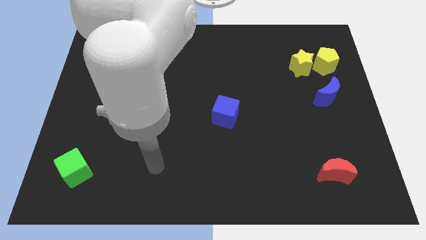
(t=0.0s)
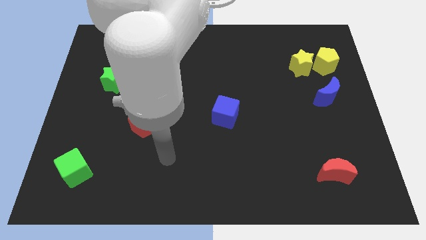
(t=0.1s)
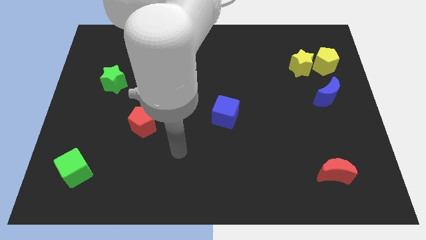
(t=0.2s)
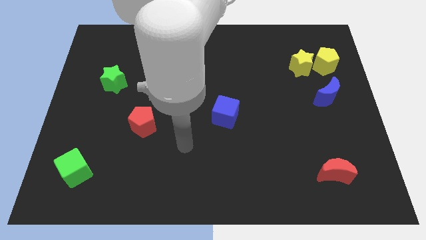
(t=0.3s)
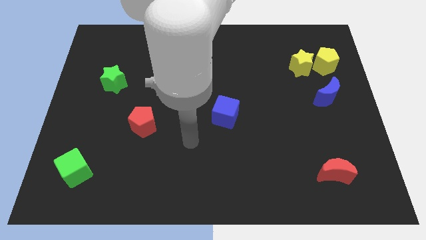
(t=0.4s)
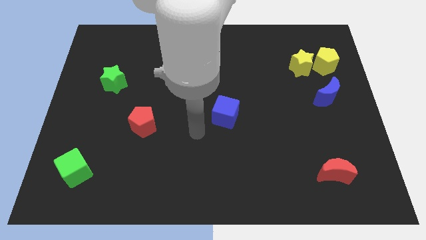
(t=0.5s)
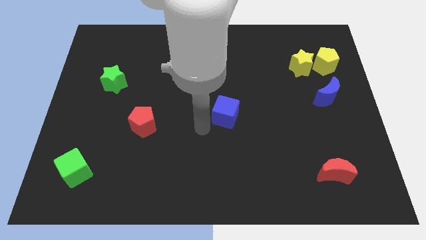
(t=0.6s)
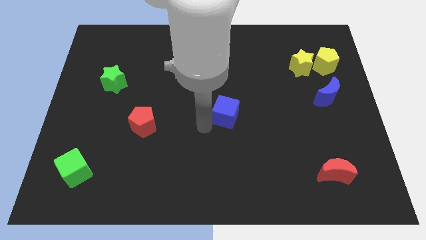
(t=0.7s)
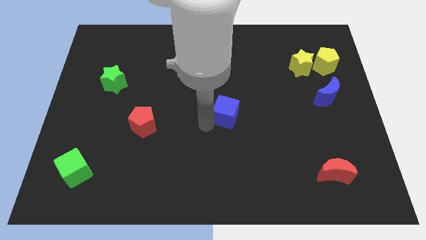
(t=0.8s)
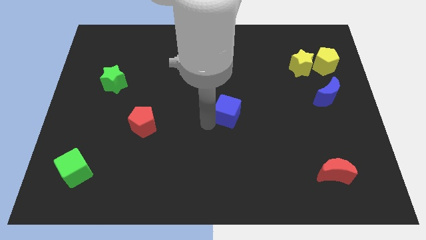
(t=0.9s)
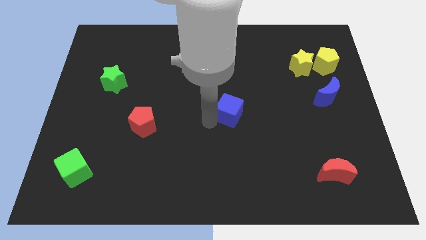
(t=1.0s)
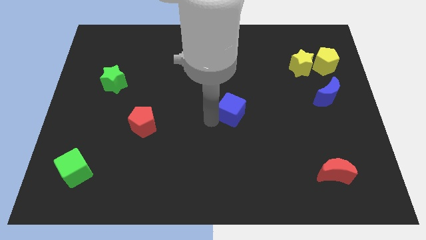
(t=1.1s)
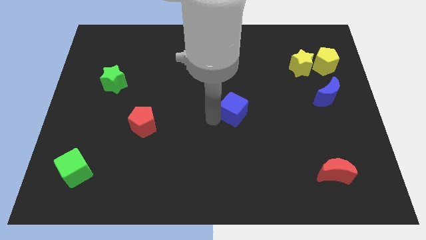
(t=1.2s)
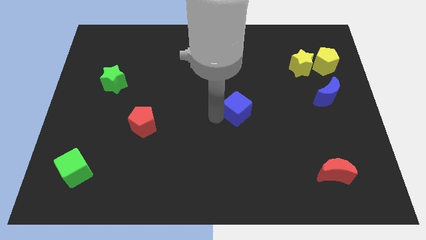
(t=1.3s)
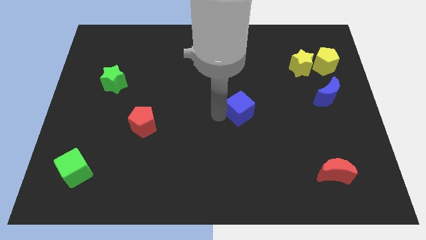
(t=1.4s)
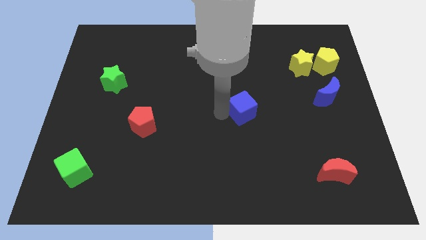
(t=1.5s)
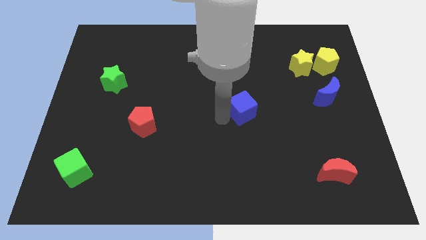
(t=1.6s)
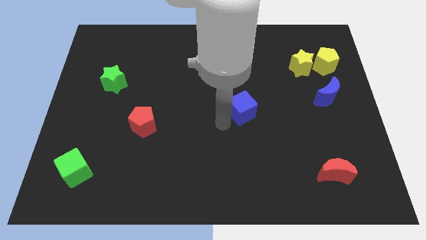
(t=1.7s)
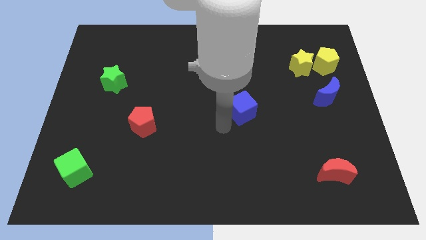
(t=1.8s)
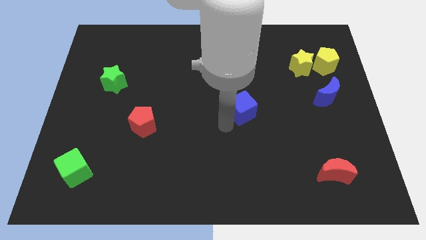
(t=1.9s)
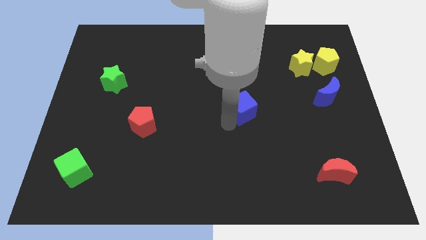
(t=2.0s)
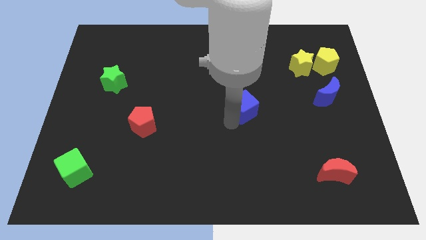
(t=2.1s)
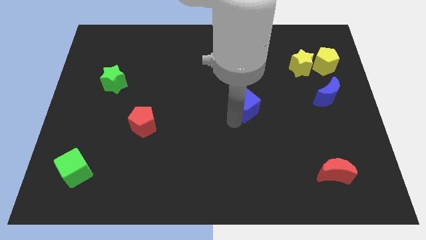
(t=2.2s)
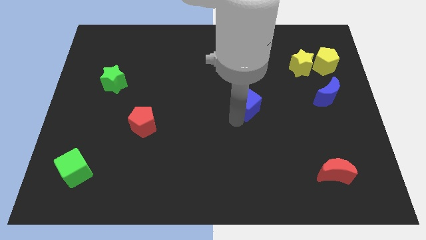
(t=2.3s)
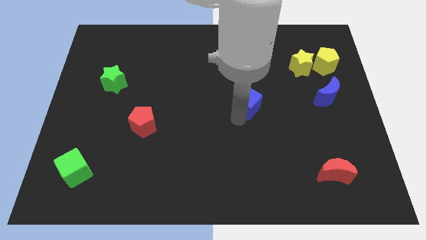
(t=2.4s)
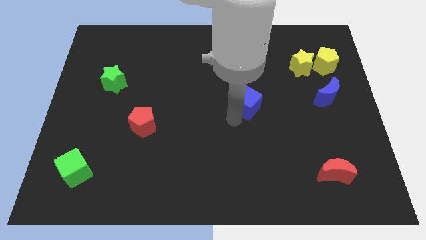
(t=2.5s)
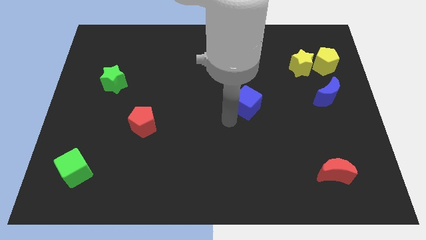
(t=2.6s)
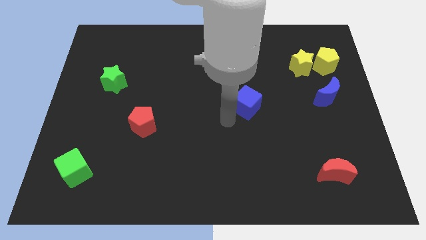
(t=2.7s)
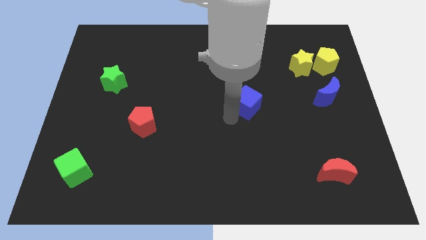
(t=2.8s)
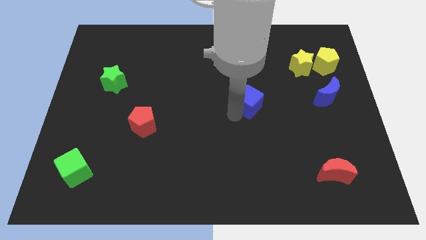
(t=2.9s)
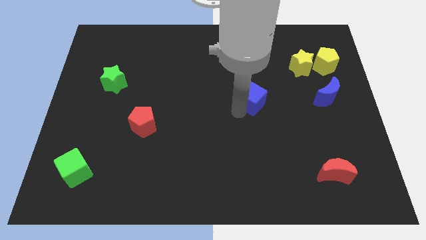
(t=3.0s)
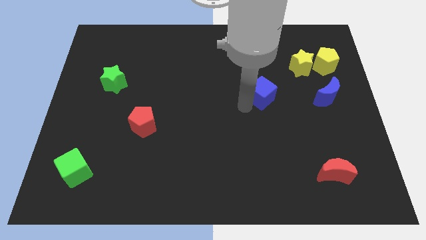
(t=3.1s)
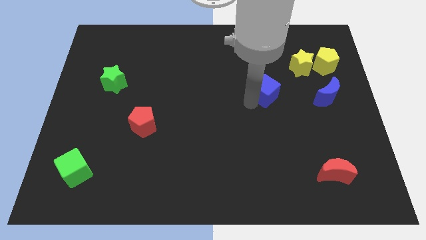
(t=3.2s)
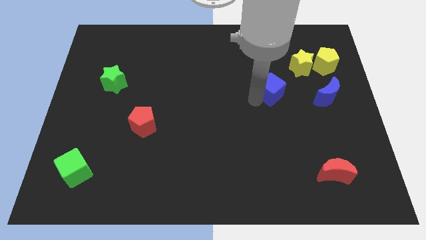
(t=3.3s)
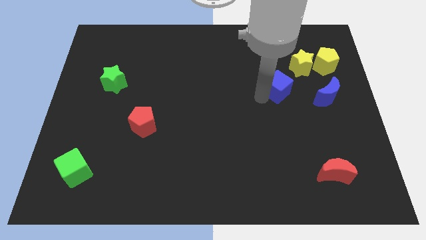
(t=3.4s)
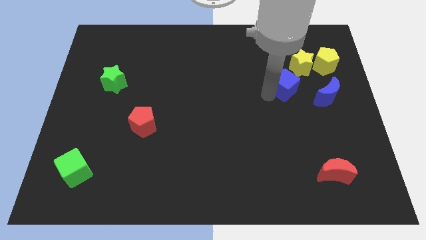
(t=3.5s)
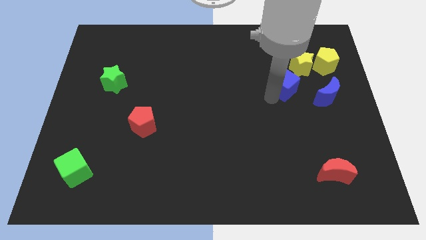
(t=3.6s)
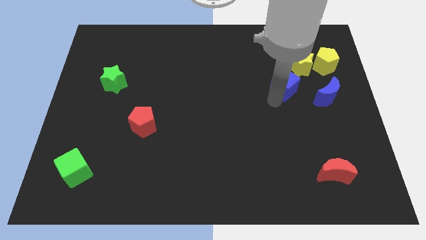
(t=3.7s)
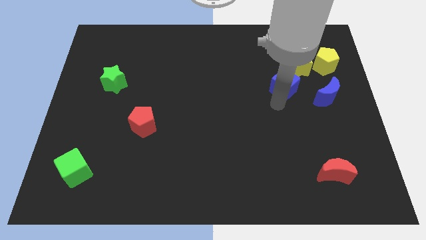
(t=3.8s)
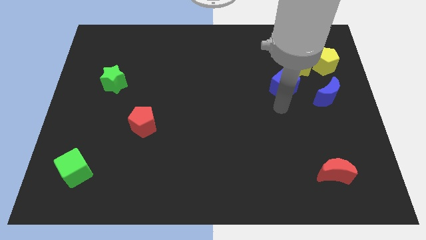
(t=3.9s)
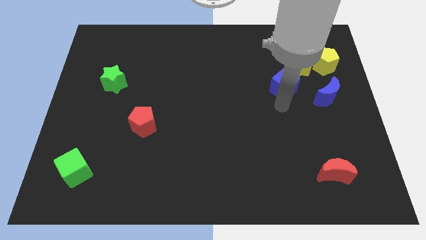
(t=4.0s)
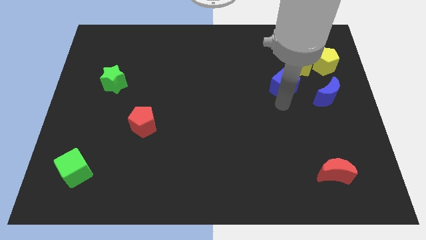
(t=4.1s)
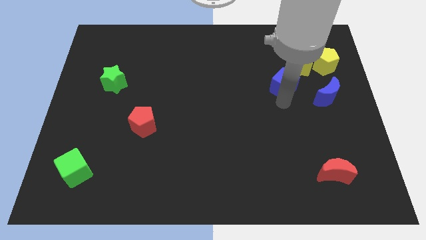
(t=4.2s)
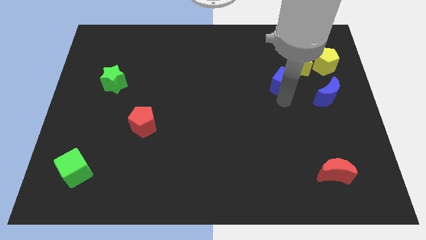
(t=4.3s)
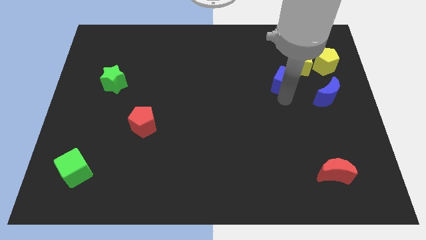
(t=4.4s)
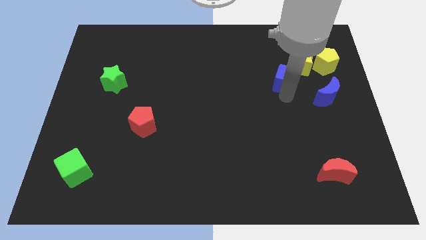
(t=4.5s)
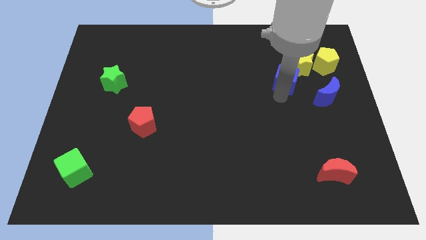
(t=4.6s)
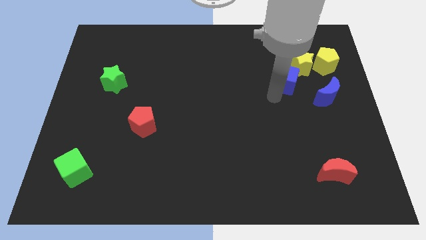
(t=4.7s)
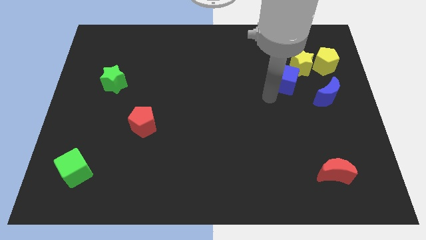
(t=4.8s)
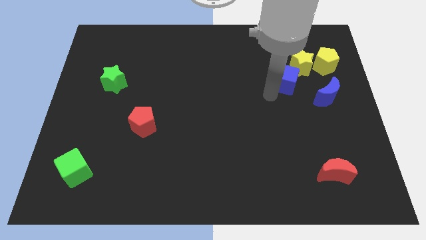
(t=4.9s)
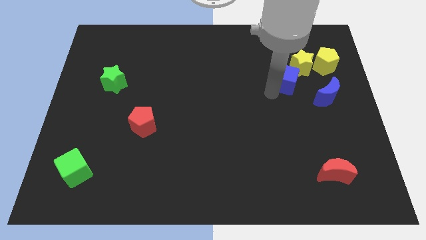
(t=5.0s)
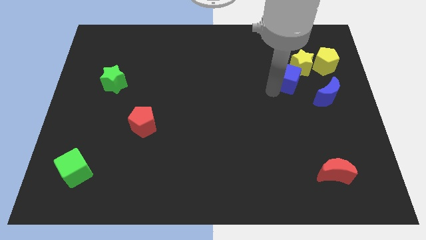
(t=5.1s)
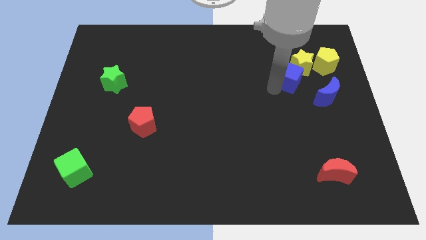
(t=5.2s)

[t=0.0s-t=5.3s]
put the blue cube next to the yellow star

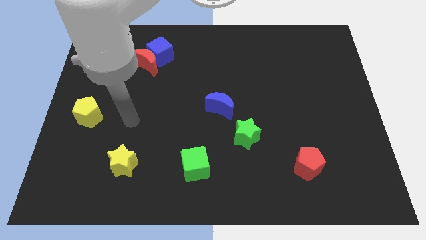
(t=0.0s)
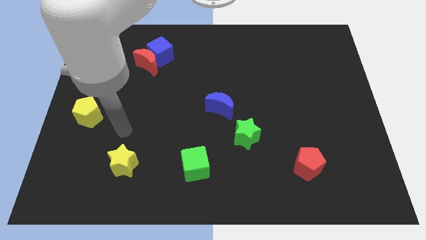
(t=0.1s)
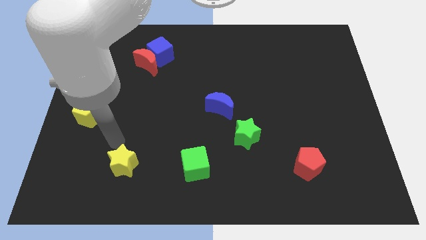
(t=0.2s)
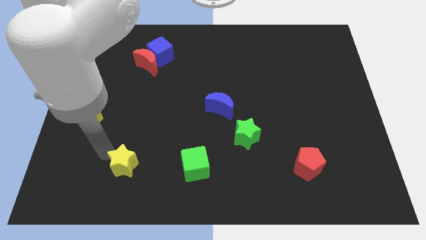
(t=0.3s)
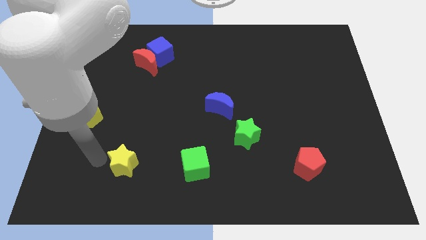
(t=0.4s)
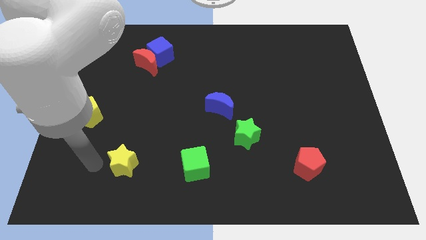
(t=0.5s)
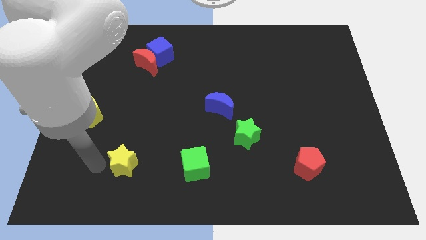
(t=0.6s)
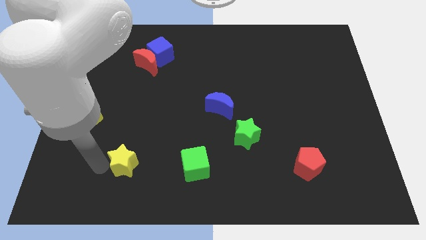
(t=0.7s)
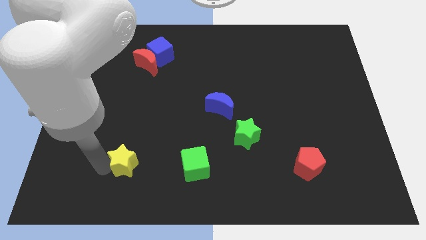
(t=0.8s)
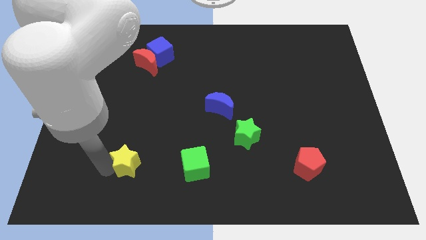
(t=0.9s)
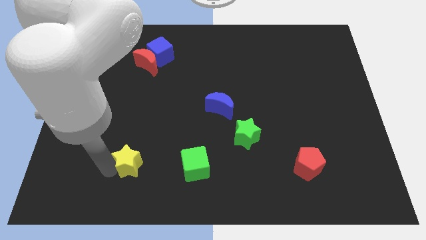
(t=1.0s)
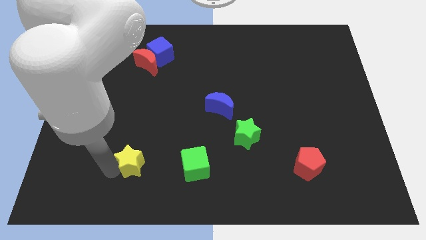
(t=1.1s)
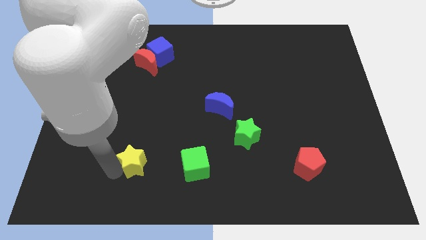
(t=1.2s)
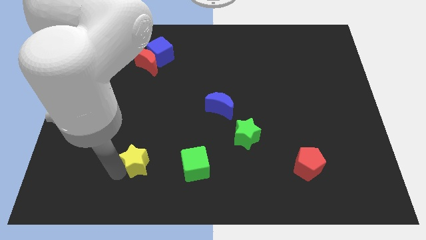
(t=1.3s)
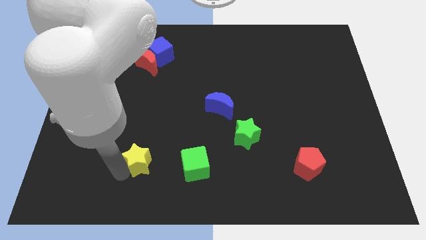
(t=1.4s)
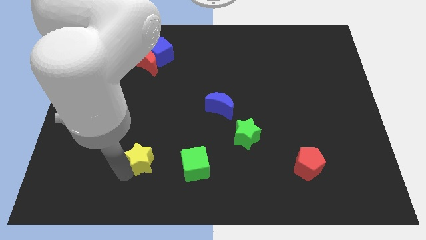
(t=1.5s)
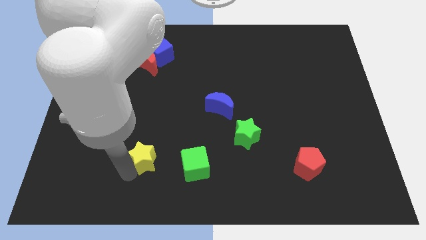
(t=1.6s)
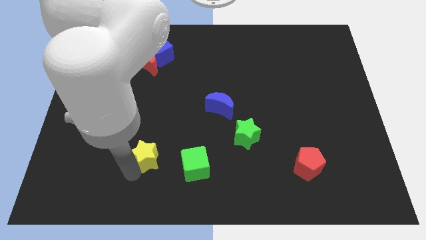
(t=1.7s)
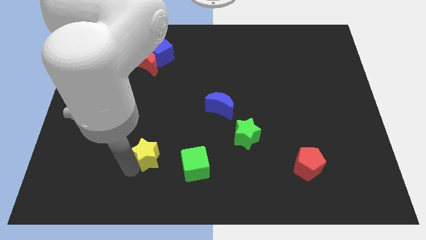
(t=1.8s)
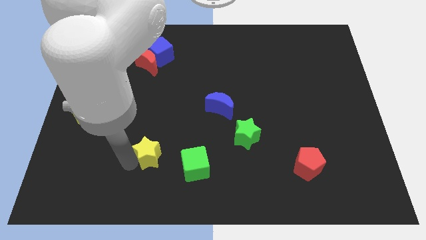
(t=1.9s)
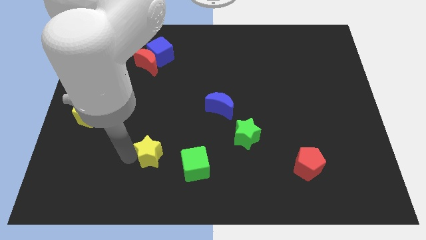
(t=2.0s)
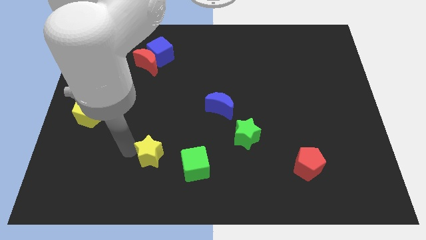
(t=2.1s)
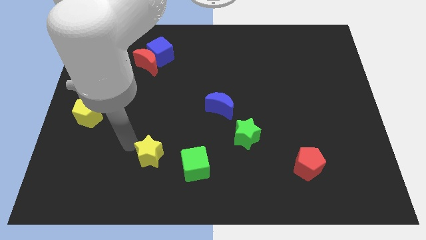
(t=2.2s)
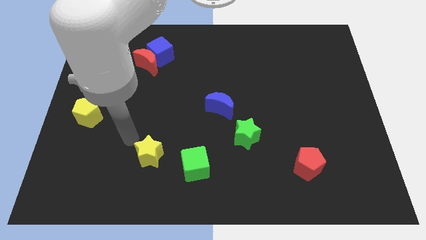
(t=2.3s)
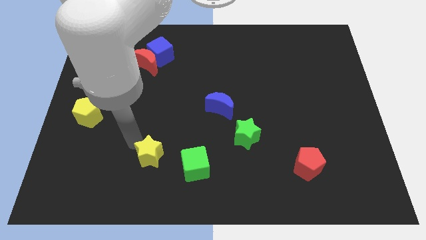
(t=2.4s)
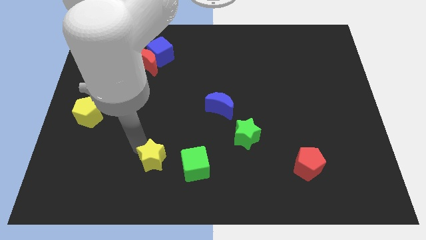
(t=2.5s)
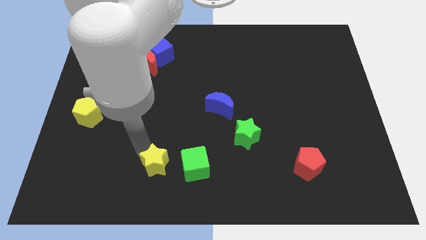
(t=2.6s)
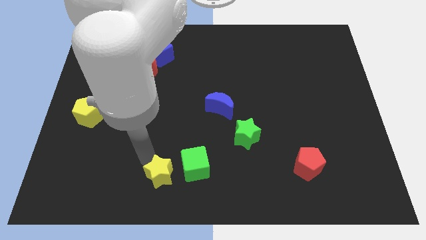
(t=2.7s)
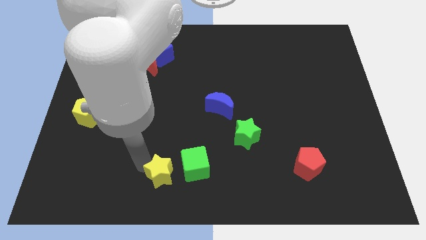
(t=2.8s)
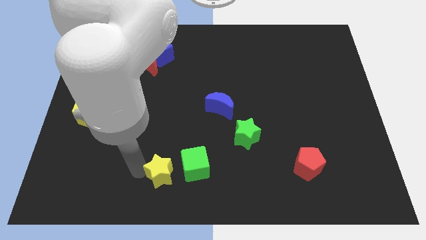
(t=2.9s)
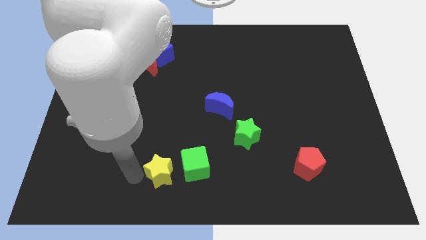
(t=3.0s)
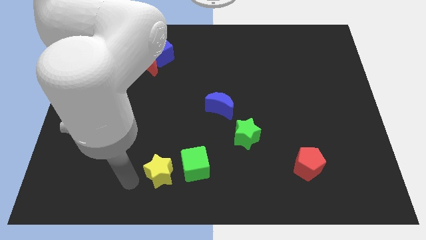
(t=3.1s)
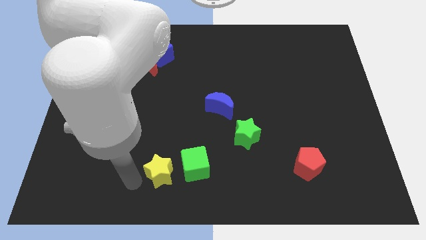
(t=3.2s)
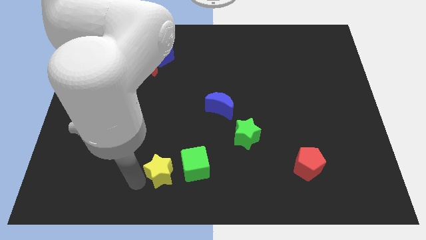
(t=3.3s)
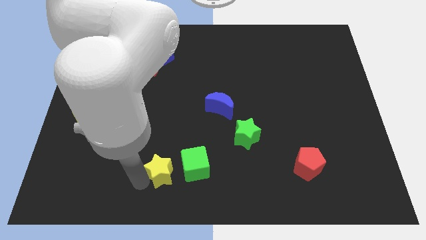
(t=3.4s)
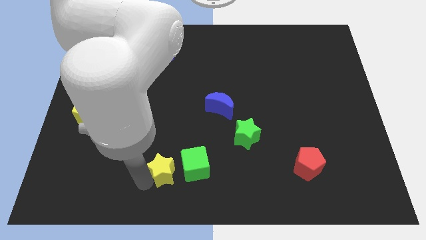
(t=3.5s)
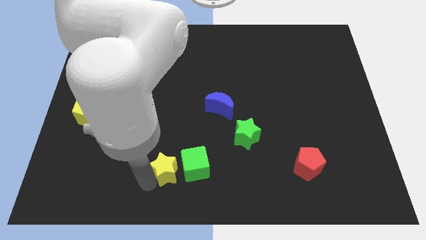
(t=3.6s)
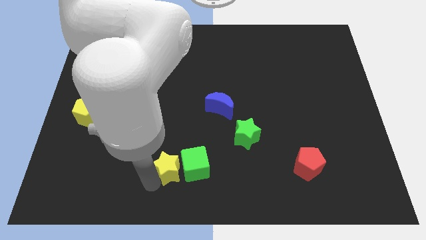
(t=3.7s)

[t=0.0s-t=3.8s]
slide the yellow star close to the green cube
